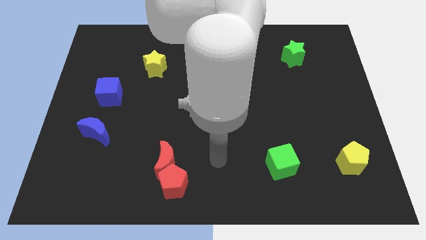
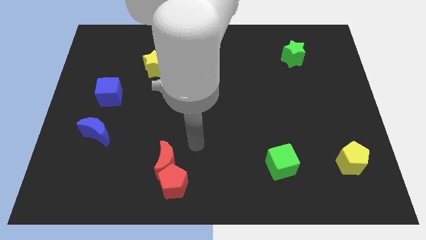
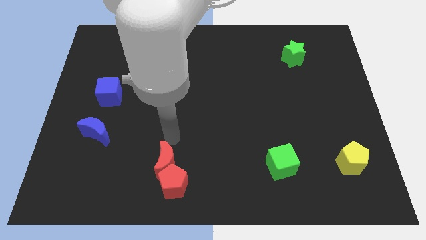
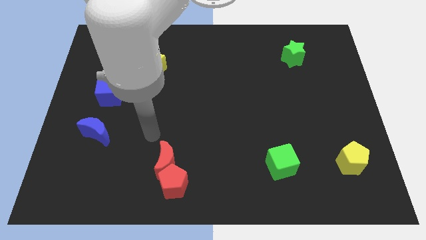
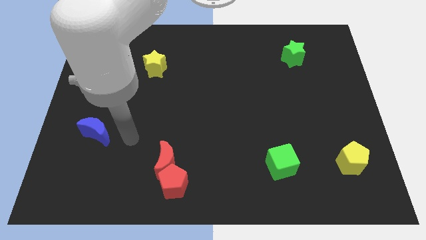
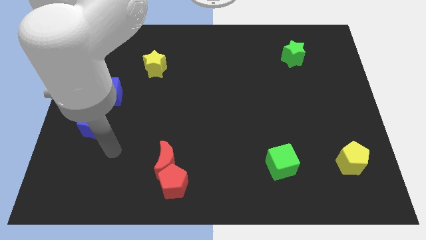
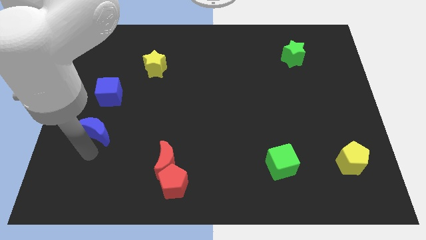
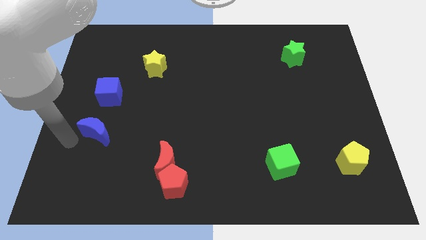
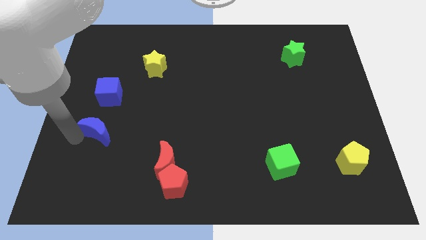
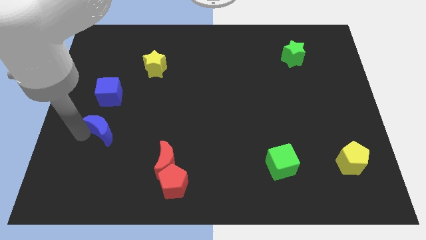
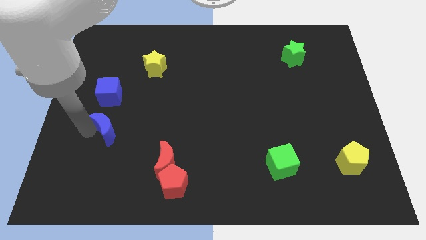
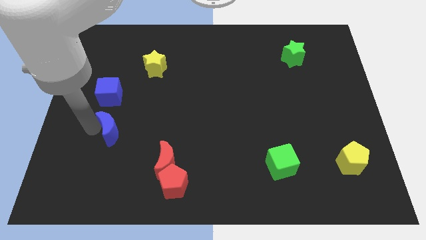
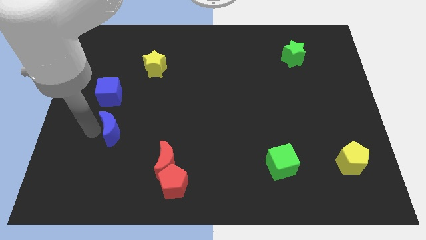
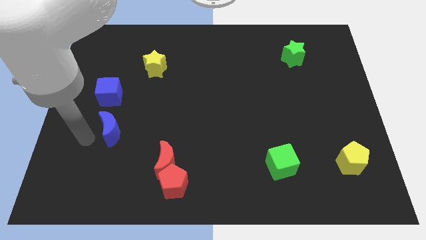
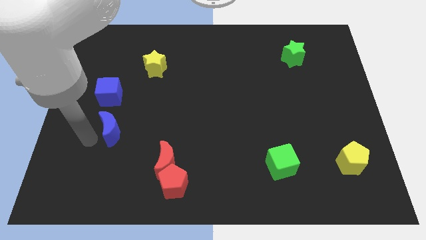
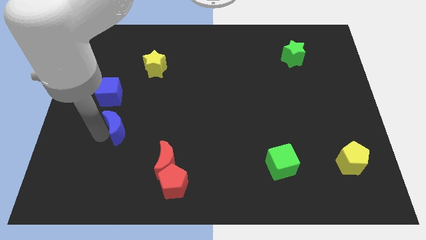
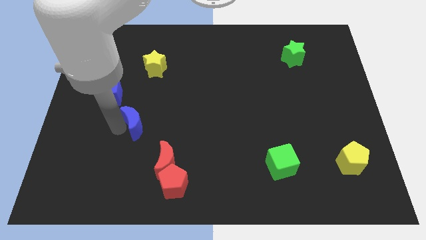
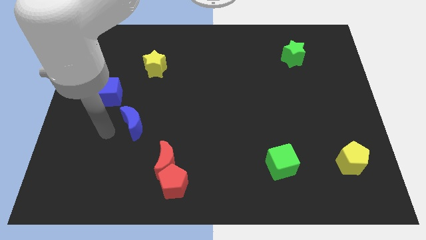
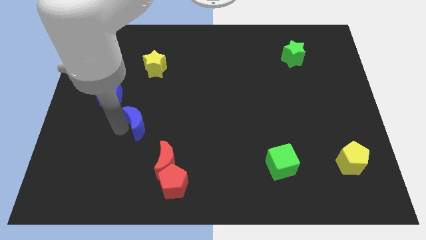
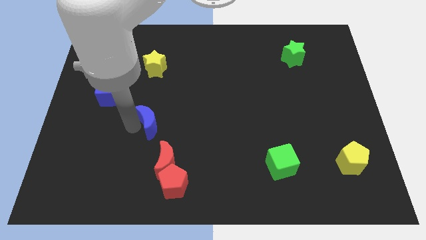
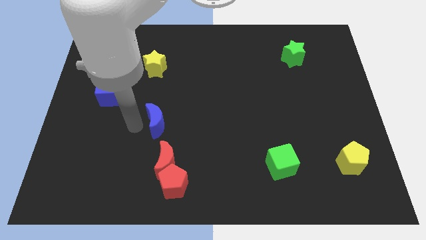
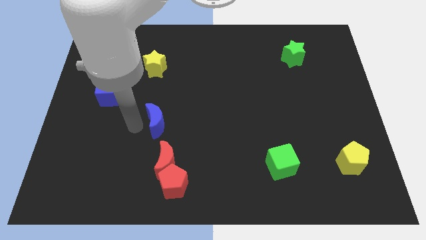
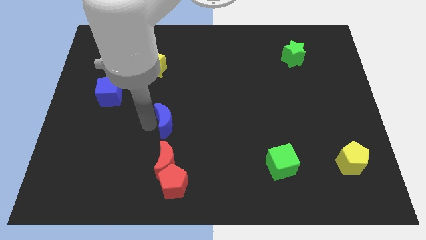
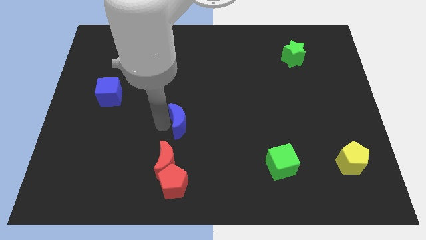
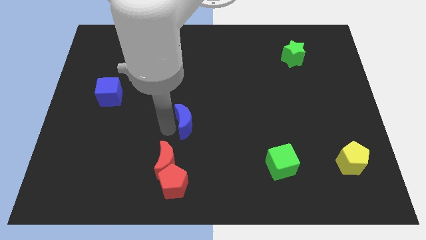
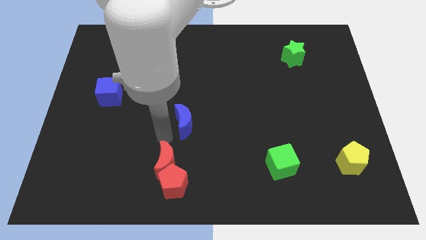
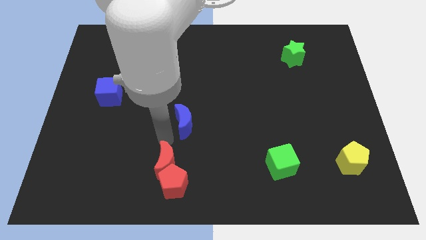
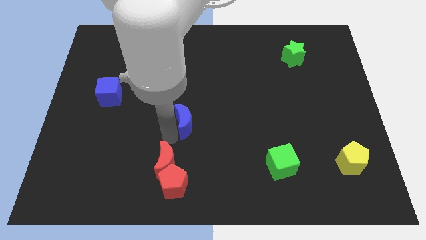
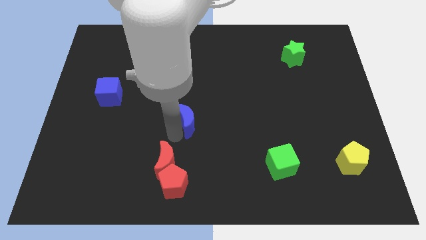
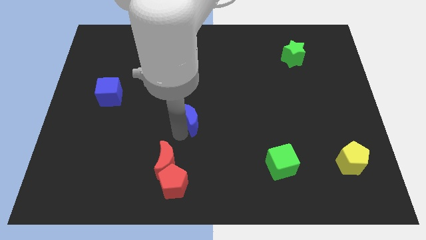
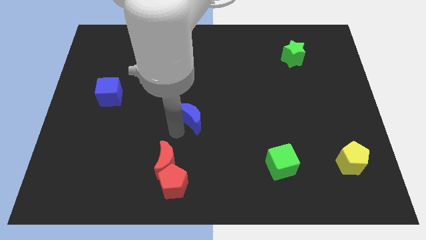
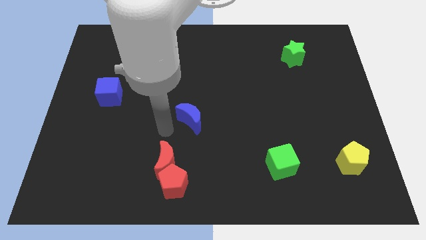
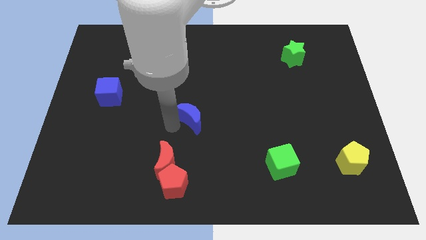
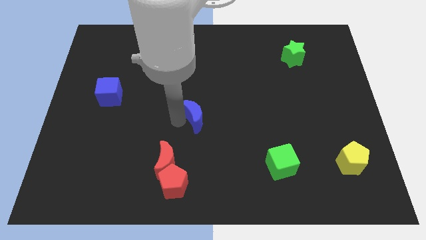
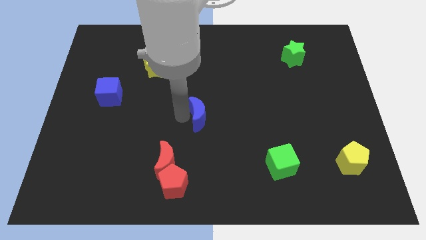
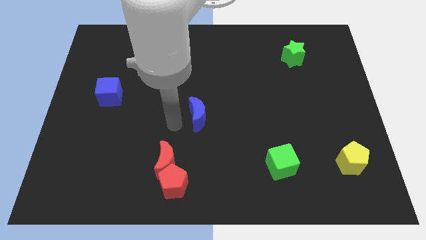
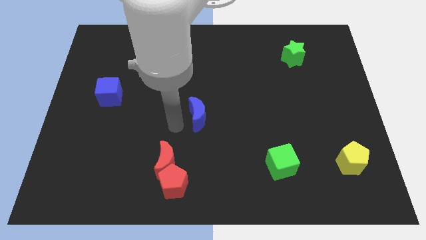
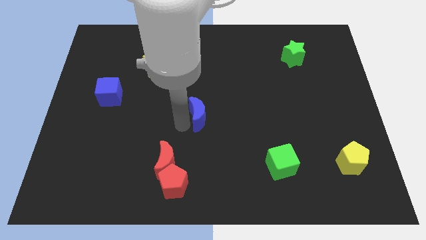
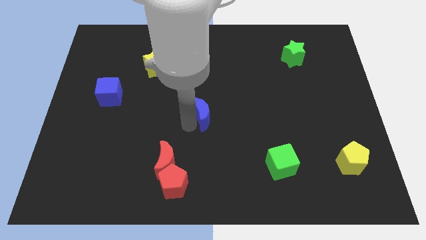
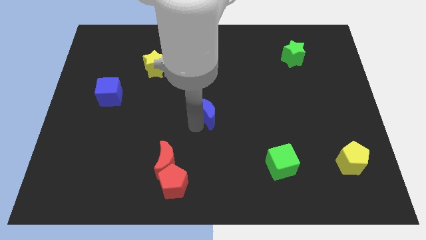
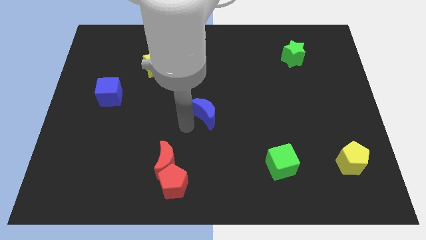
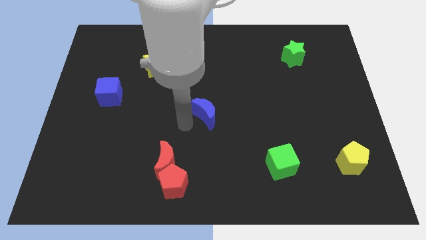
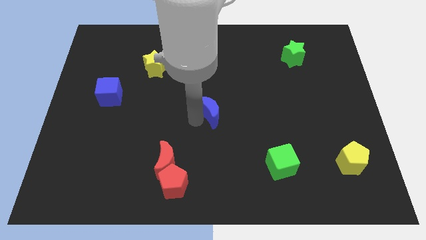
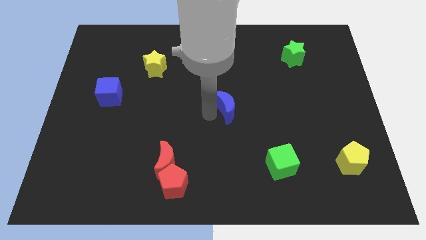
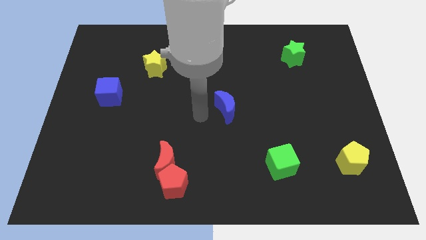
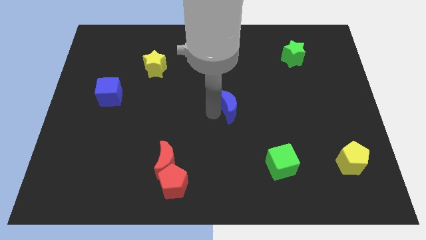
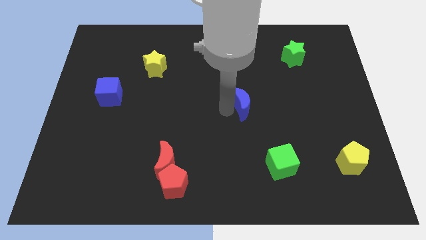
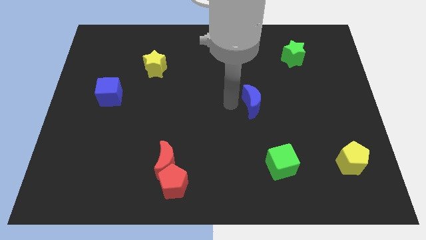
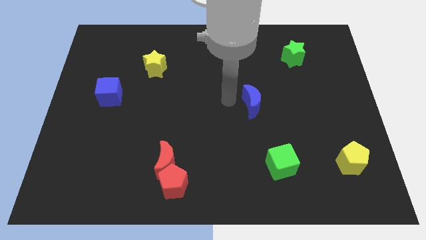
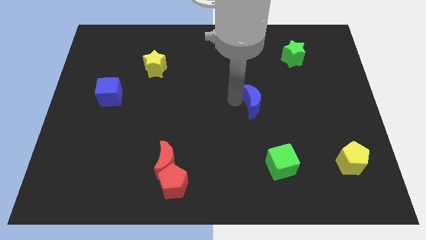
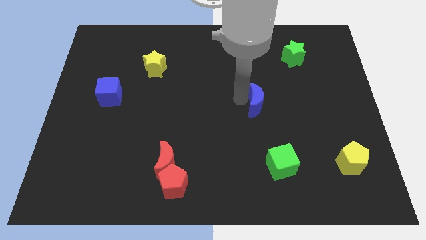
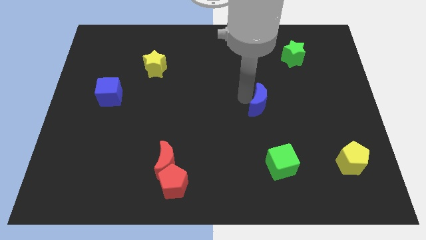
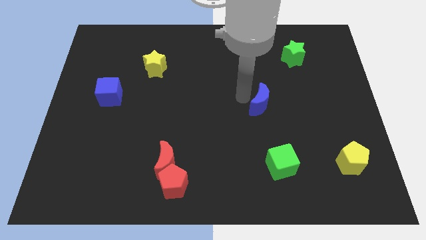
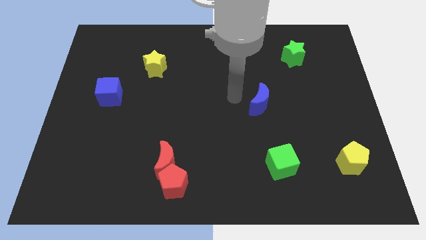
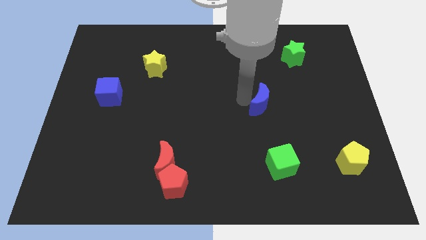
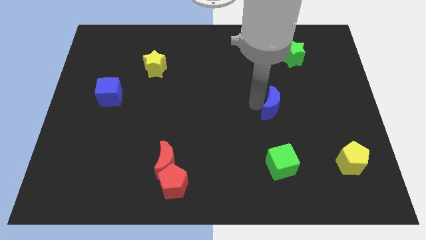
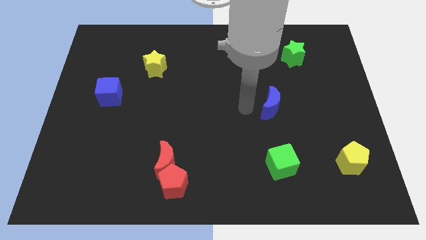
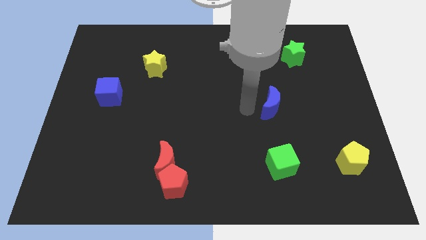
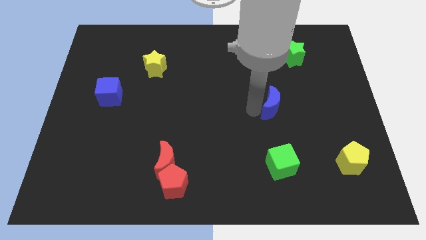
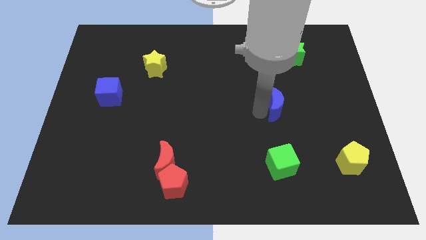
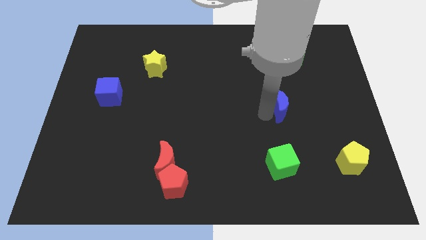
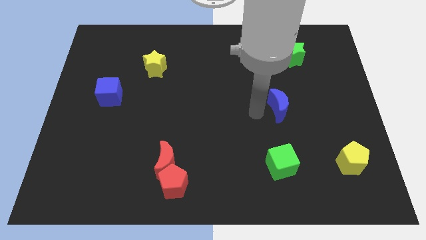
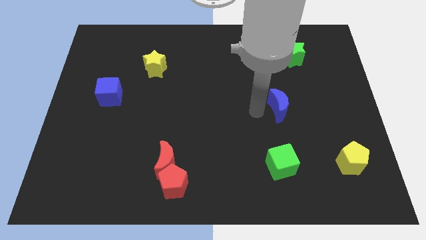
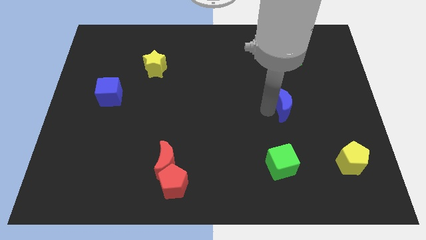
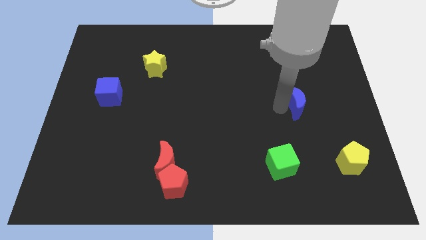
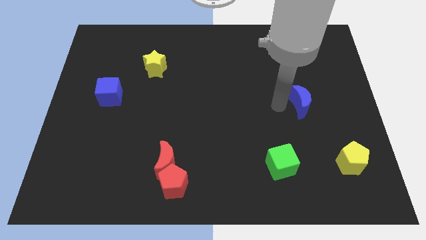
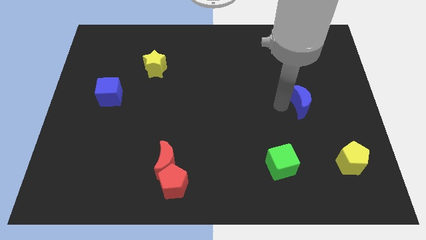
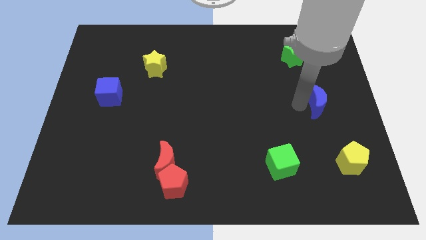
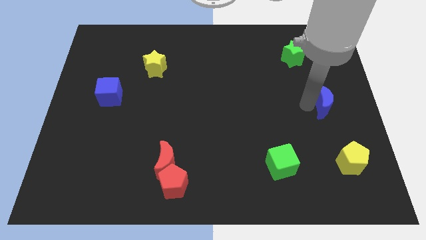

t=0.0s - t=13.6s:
move the blue moon to the center right
